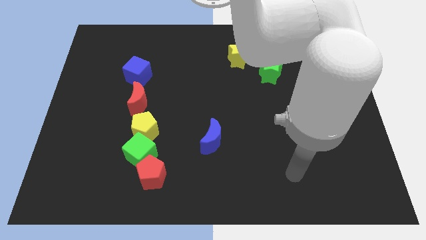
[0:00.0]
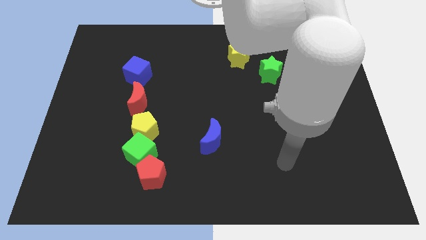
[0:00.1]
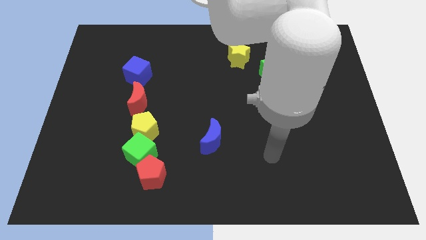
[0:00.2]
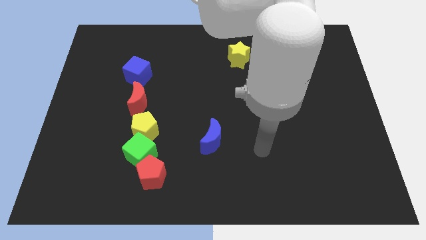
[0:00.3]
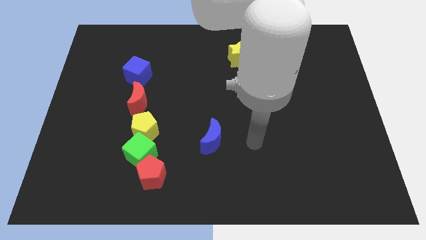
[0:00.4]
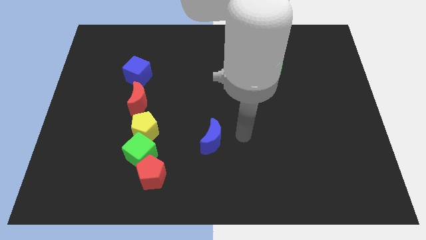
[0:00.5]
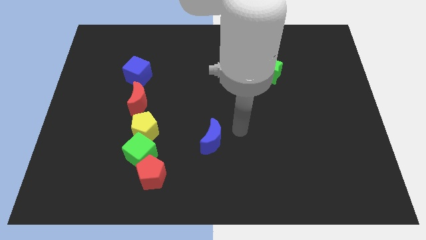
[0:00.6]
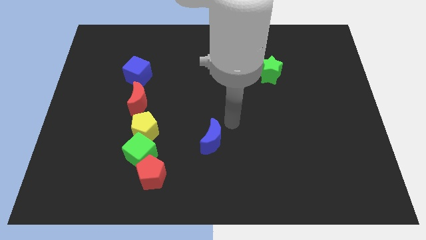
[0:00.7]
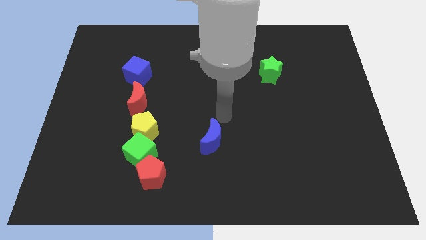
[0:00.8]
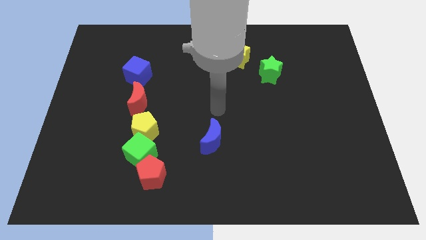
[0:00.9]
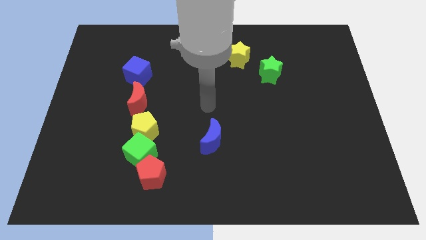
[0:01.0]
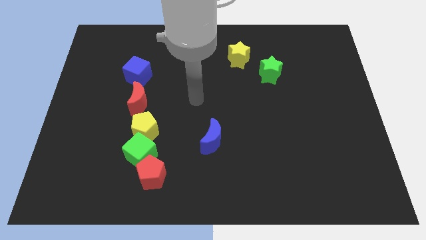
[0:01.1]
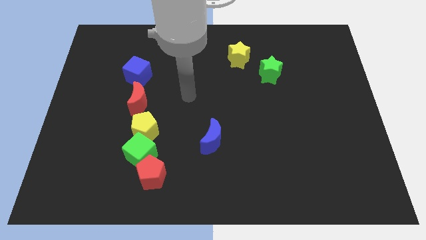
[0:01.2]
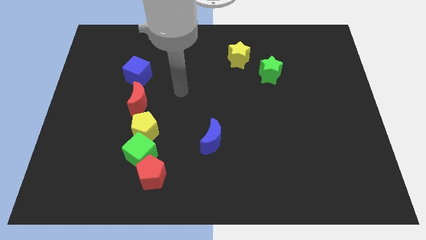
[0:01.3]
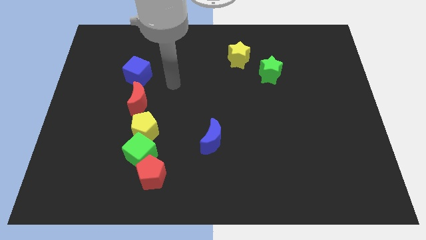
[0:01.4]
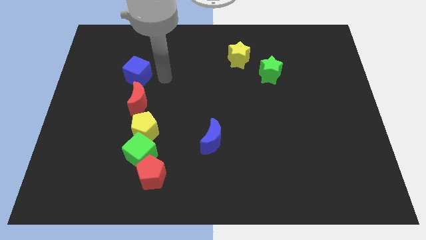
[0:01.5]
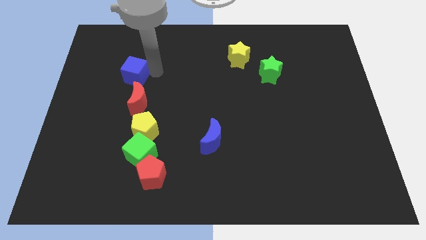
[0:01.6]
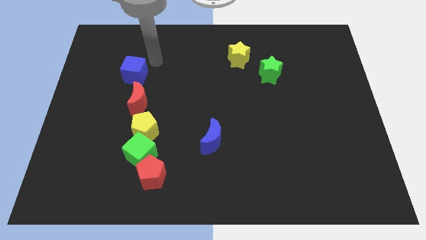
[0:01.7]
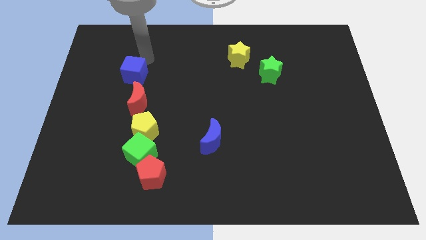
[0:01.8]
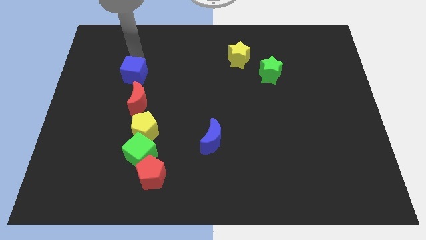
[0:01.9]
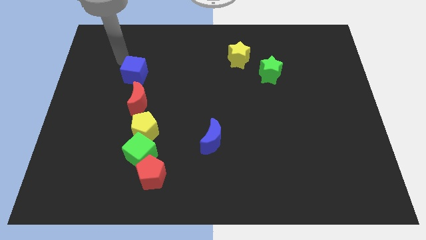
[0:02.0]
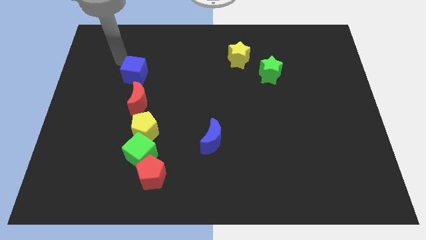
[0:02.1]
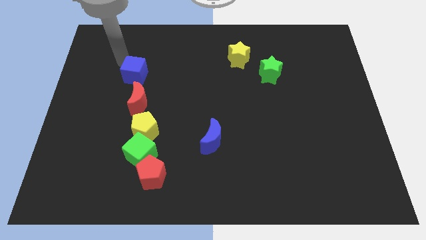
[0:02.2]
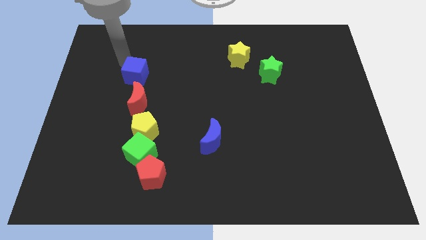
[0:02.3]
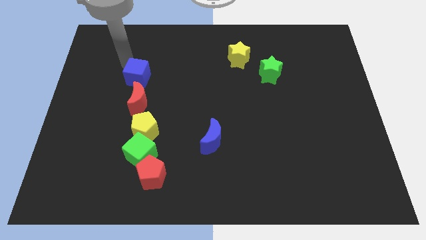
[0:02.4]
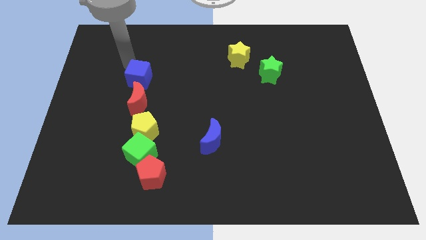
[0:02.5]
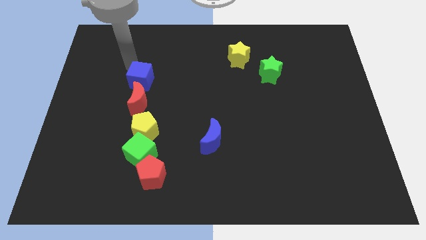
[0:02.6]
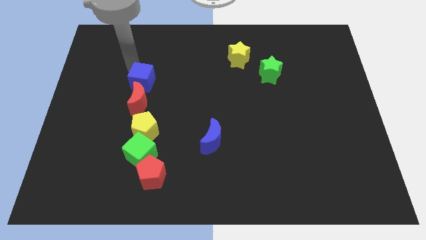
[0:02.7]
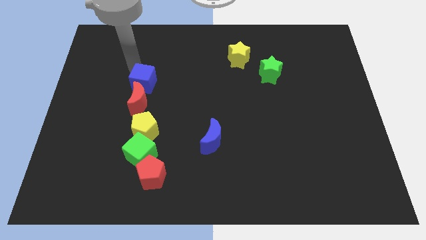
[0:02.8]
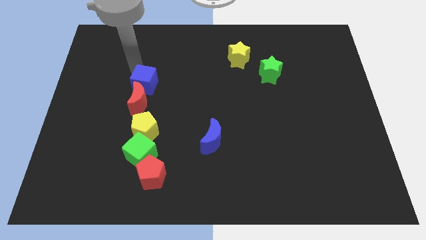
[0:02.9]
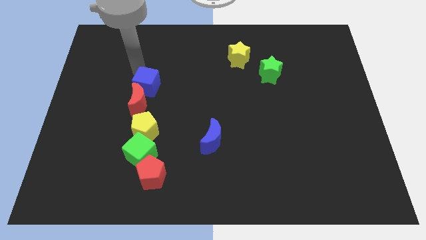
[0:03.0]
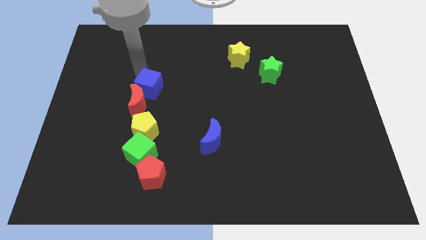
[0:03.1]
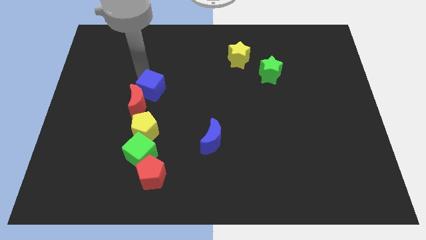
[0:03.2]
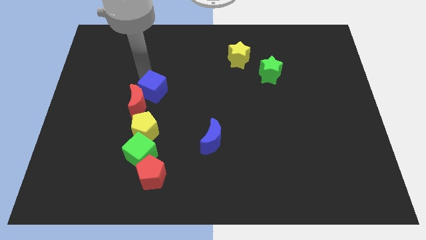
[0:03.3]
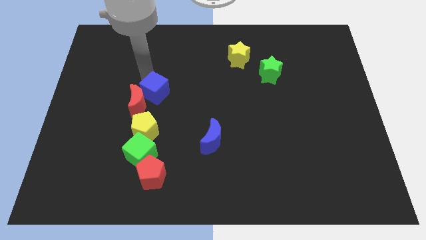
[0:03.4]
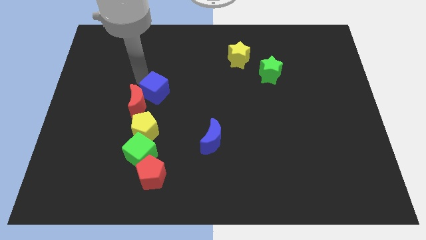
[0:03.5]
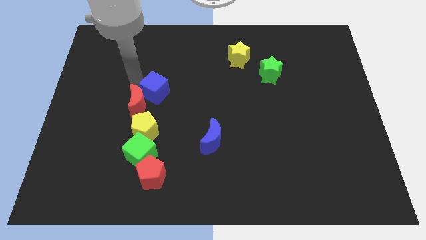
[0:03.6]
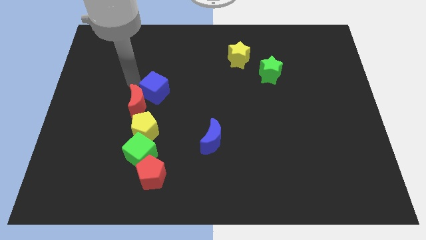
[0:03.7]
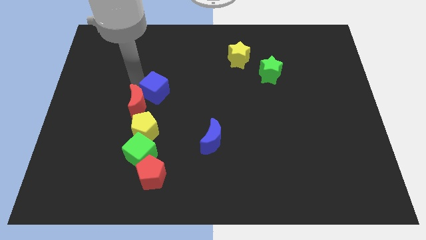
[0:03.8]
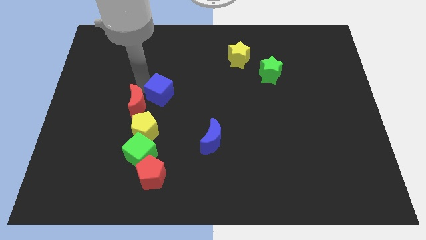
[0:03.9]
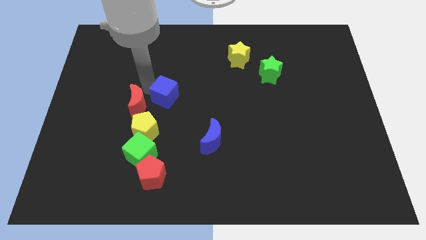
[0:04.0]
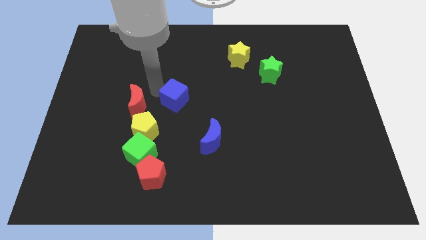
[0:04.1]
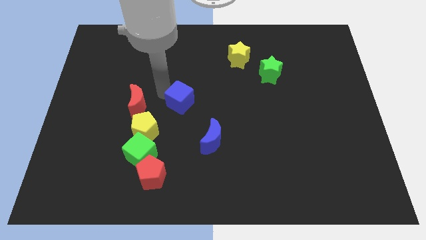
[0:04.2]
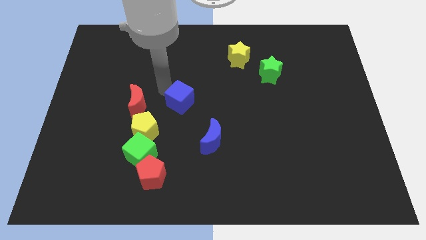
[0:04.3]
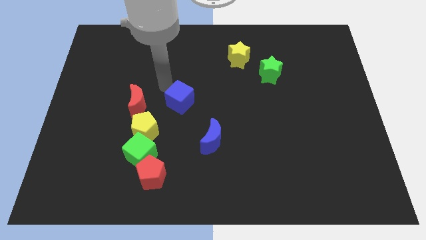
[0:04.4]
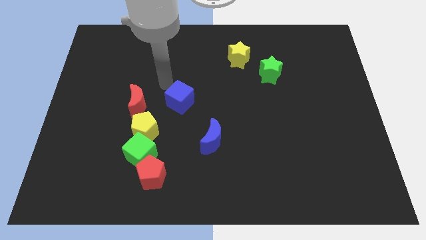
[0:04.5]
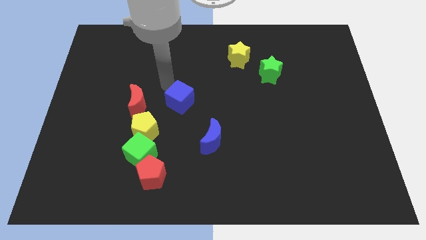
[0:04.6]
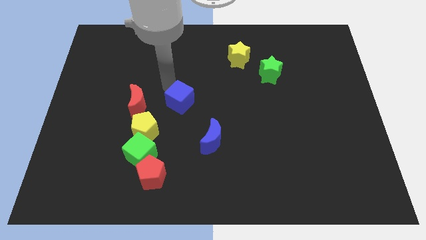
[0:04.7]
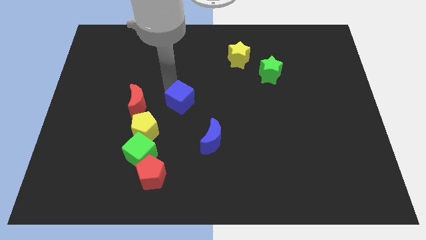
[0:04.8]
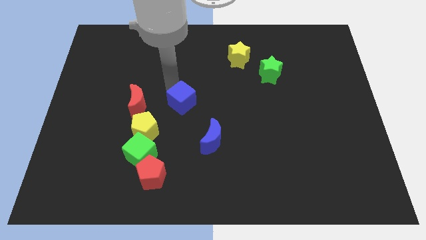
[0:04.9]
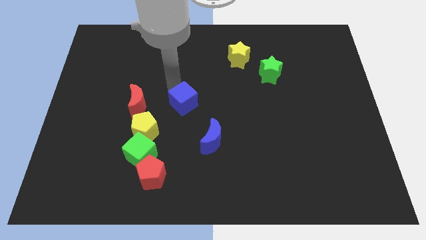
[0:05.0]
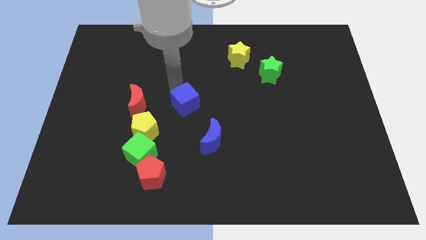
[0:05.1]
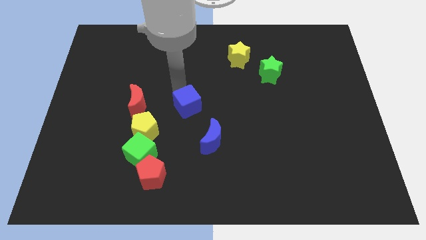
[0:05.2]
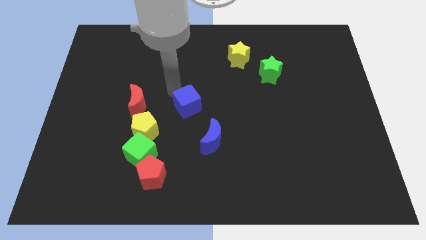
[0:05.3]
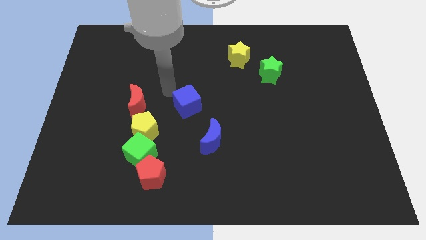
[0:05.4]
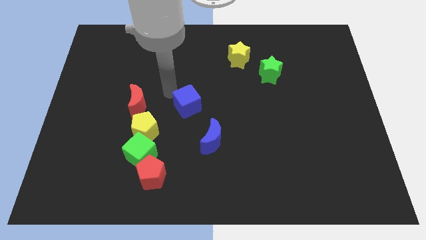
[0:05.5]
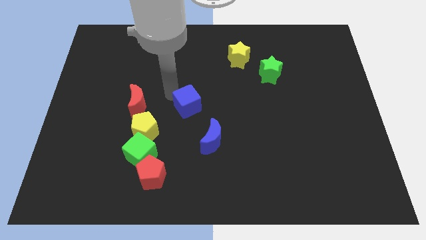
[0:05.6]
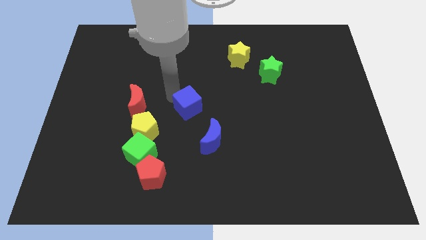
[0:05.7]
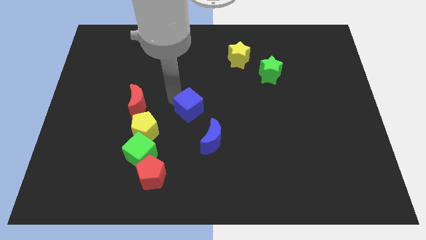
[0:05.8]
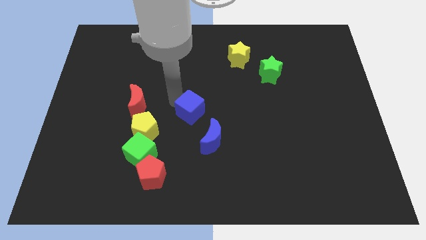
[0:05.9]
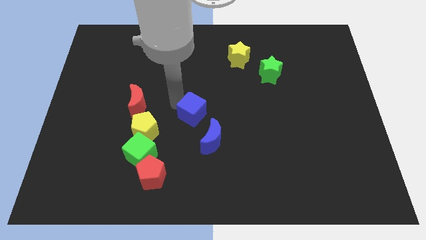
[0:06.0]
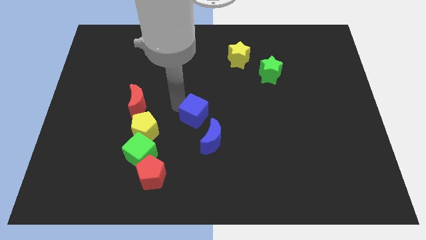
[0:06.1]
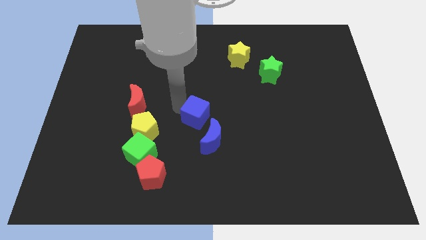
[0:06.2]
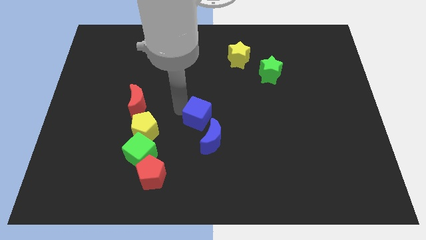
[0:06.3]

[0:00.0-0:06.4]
move the blue cube diagonally downwards and to the right

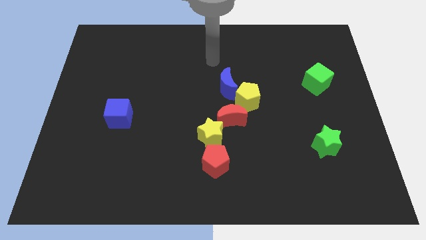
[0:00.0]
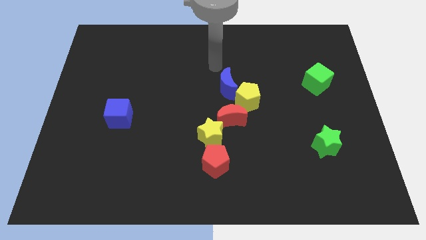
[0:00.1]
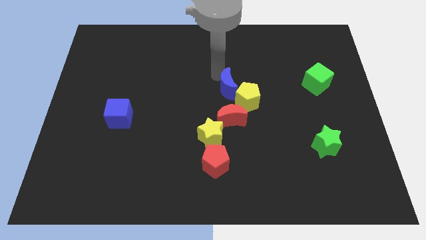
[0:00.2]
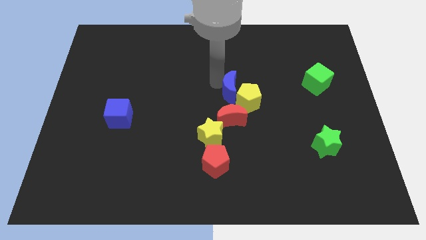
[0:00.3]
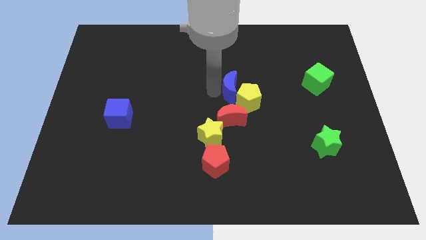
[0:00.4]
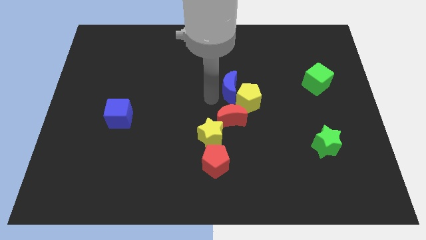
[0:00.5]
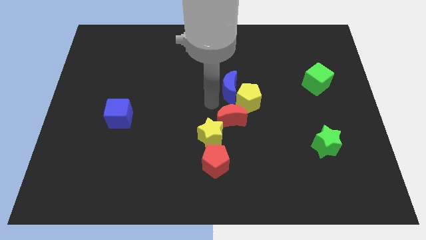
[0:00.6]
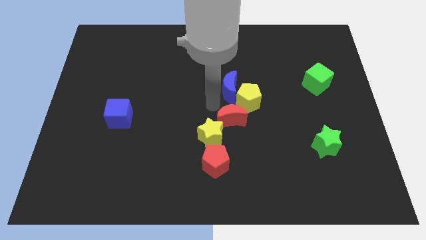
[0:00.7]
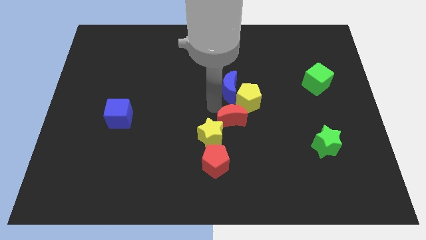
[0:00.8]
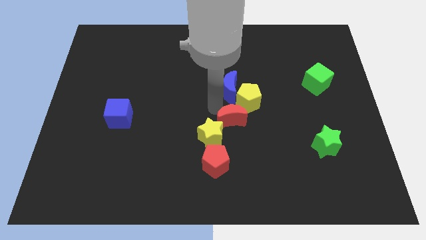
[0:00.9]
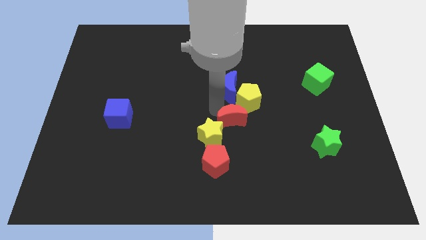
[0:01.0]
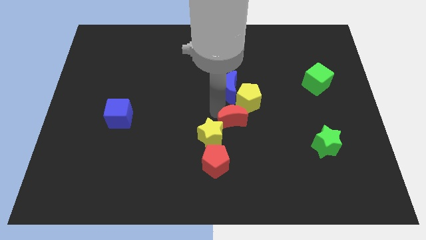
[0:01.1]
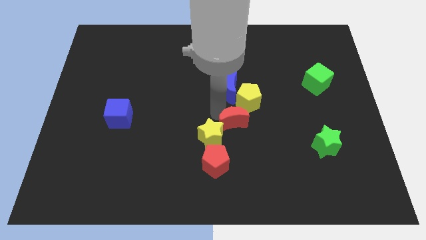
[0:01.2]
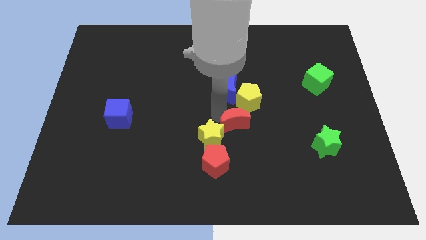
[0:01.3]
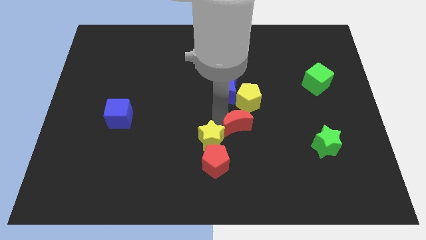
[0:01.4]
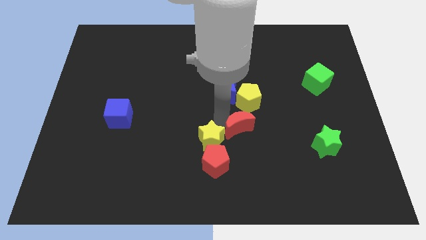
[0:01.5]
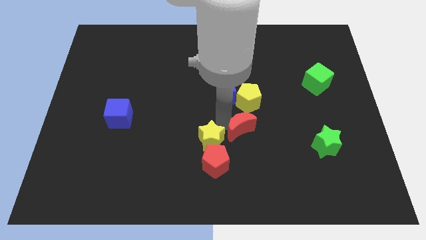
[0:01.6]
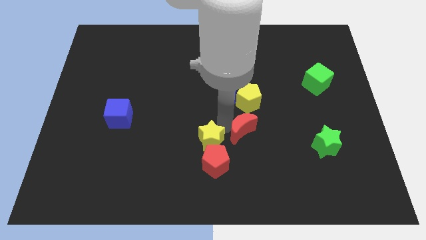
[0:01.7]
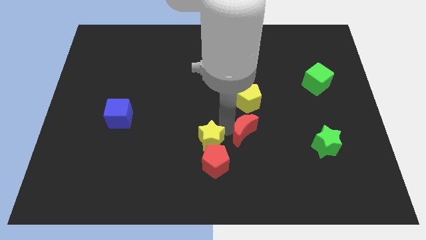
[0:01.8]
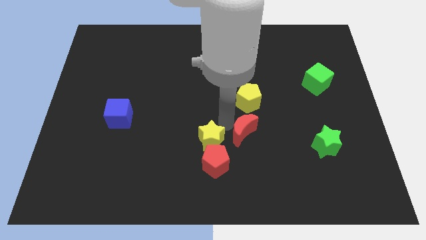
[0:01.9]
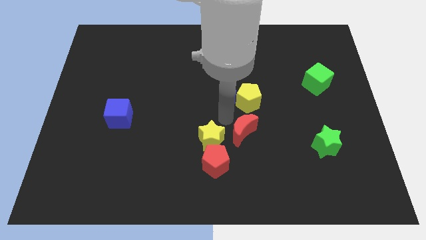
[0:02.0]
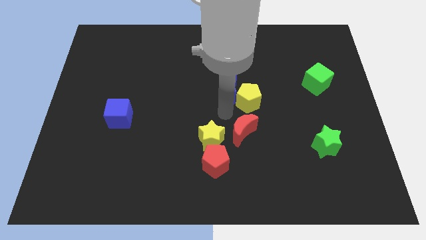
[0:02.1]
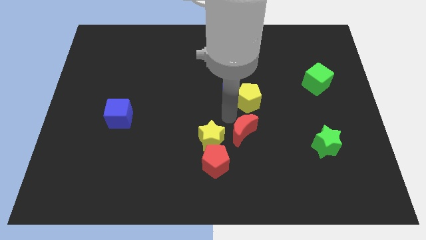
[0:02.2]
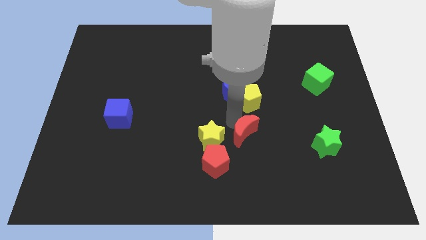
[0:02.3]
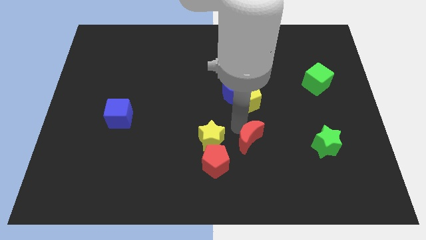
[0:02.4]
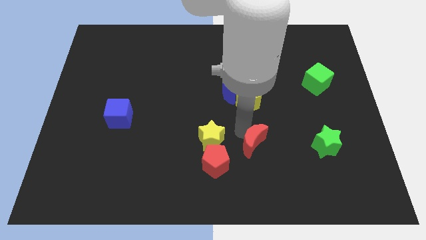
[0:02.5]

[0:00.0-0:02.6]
push the red moon a bit down and right
